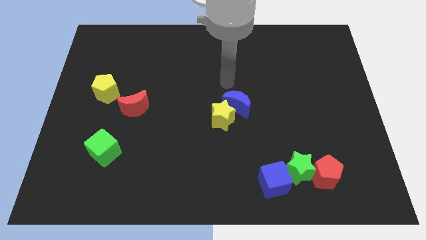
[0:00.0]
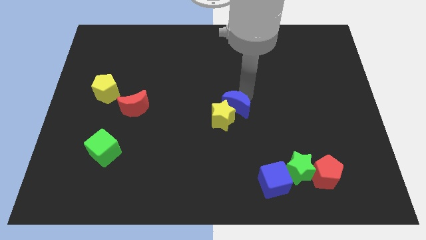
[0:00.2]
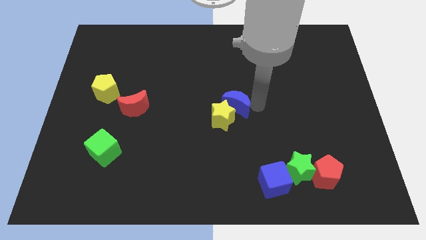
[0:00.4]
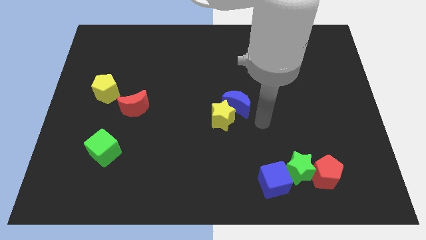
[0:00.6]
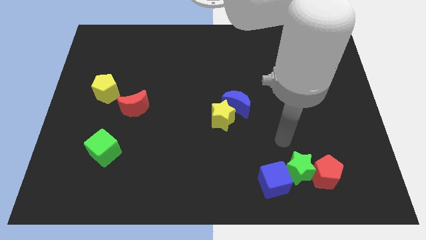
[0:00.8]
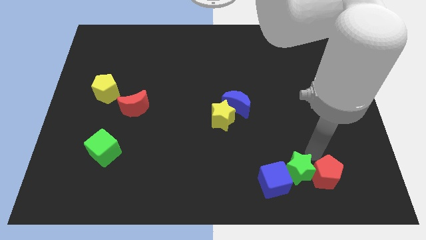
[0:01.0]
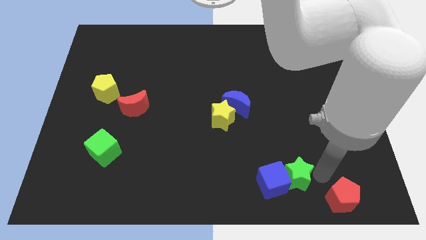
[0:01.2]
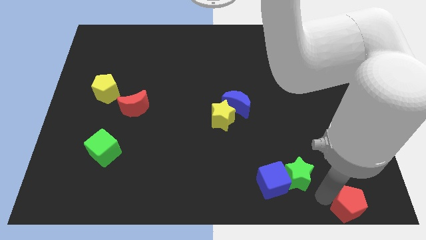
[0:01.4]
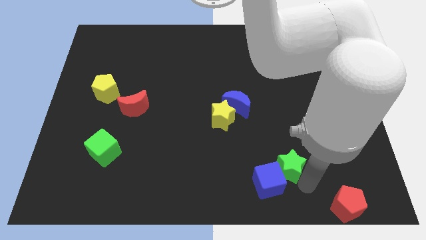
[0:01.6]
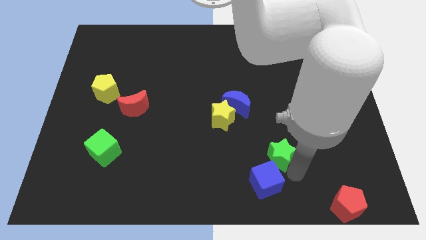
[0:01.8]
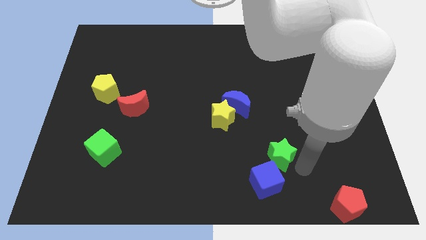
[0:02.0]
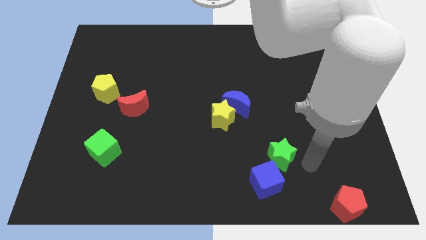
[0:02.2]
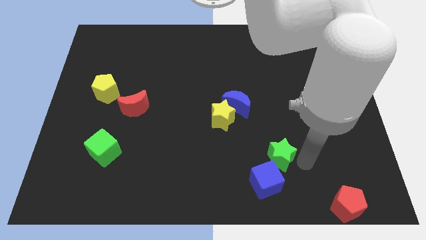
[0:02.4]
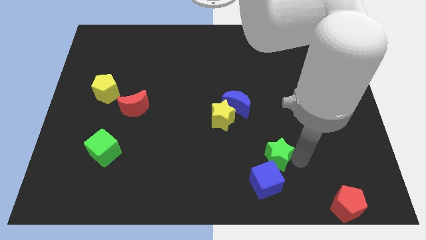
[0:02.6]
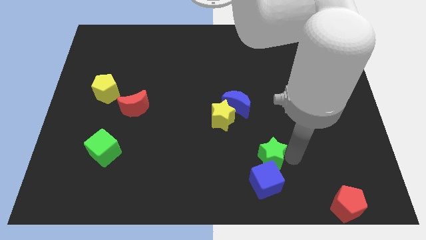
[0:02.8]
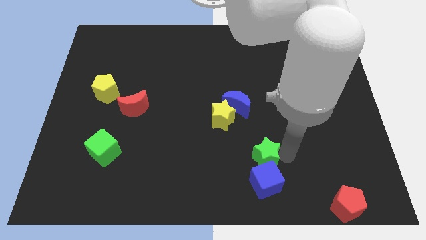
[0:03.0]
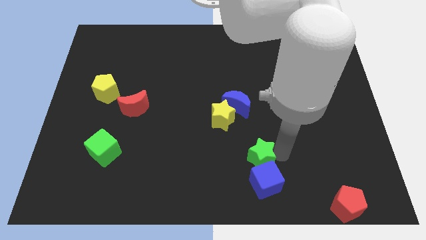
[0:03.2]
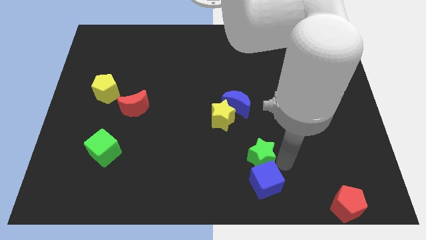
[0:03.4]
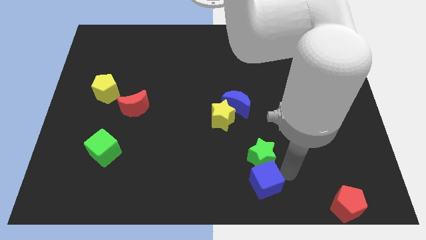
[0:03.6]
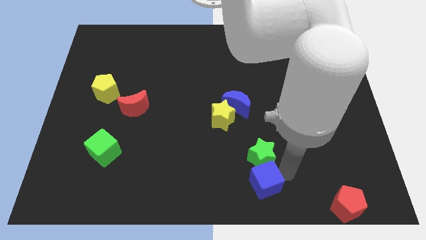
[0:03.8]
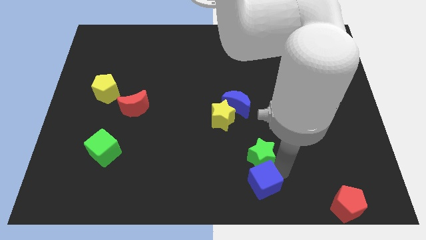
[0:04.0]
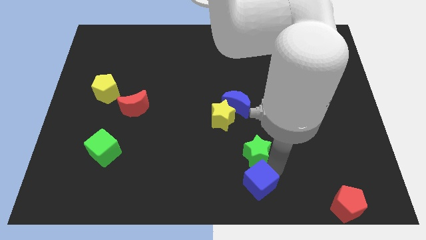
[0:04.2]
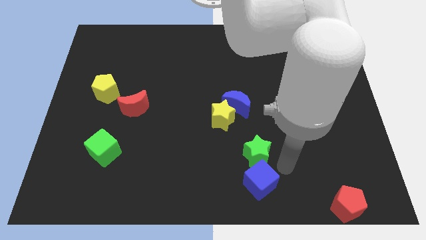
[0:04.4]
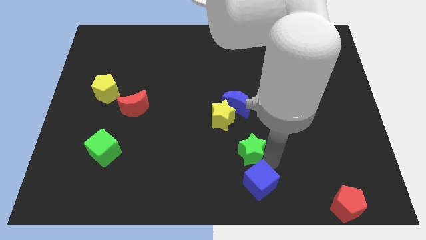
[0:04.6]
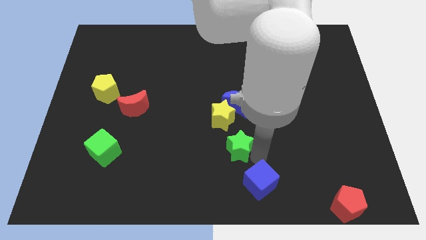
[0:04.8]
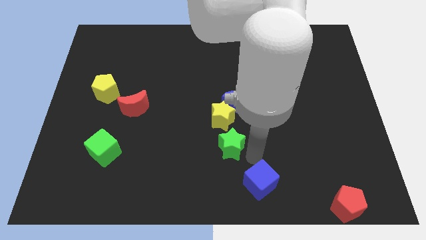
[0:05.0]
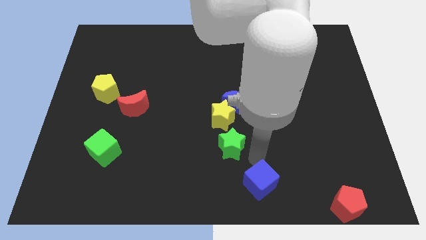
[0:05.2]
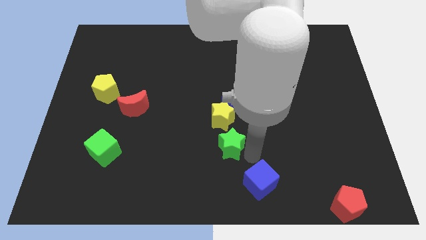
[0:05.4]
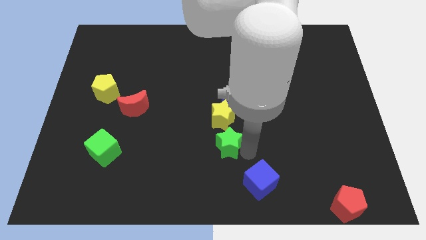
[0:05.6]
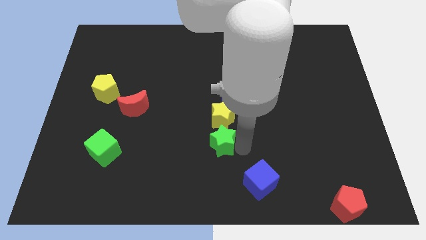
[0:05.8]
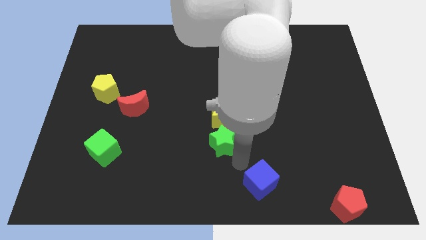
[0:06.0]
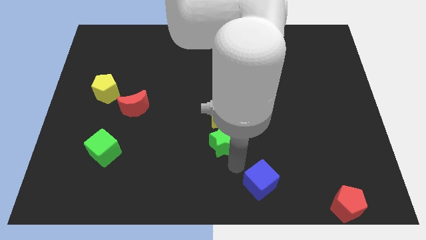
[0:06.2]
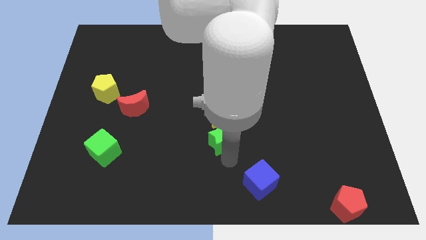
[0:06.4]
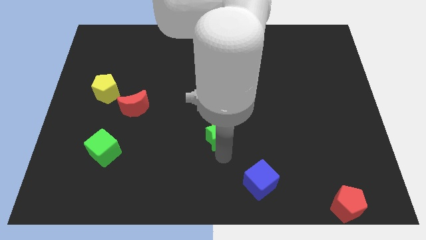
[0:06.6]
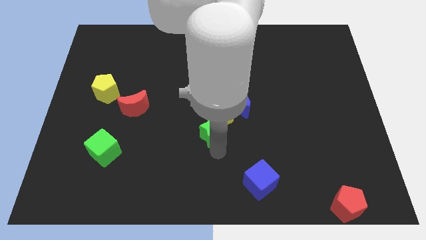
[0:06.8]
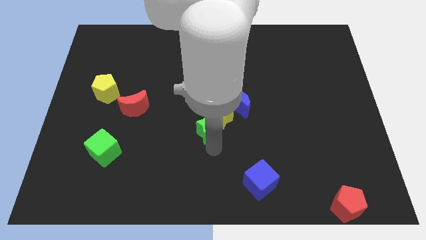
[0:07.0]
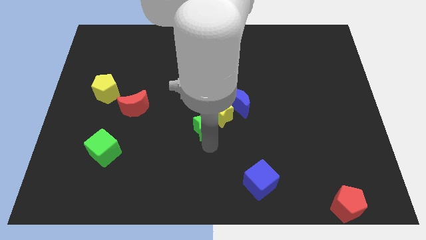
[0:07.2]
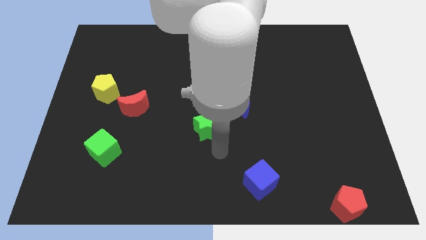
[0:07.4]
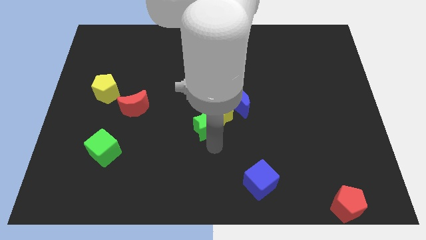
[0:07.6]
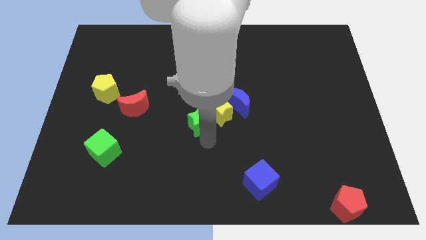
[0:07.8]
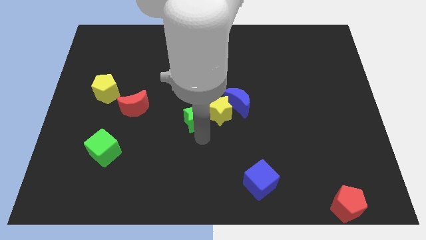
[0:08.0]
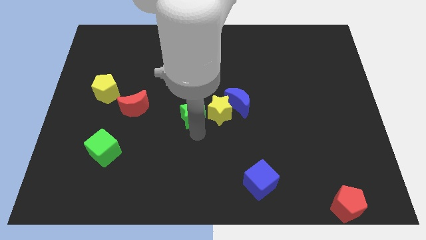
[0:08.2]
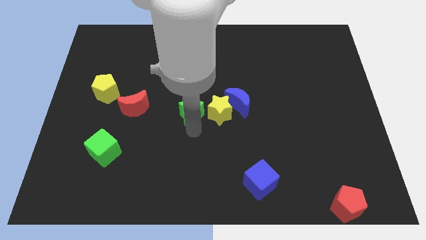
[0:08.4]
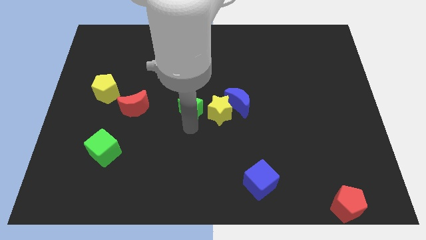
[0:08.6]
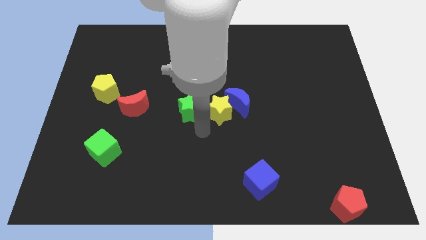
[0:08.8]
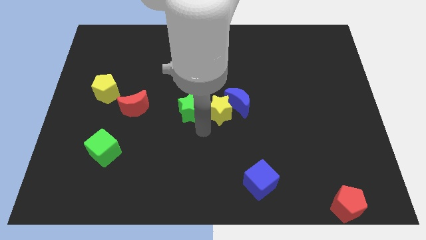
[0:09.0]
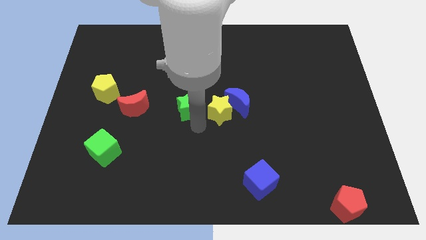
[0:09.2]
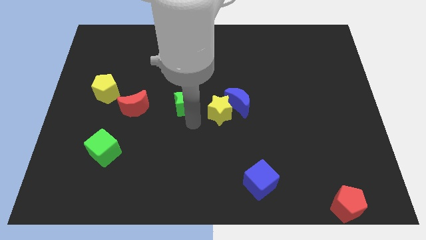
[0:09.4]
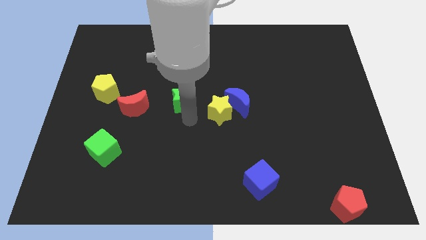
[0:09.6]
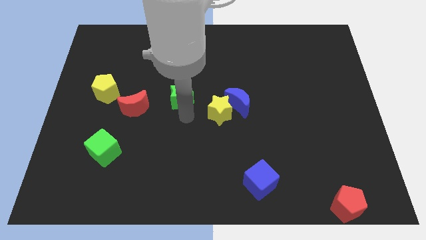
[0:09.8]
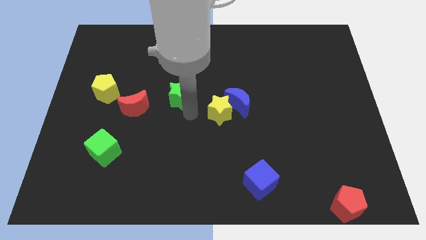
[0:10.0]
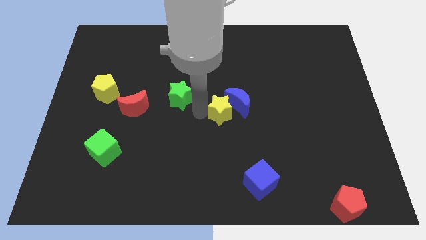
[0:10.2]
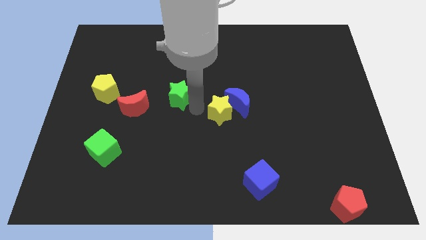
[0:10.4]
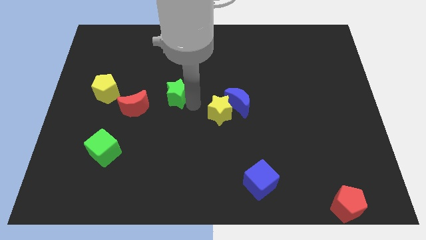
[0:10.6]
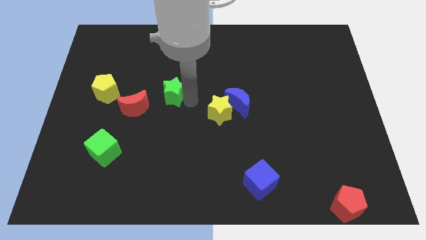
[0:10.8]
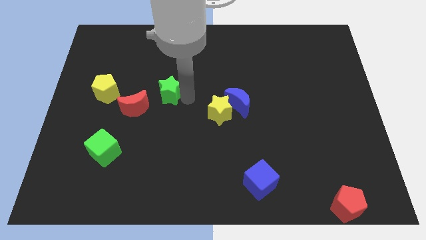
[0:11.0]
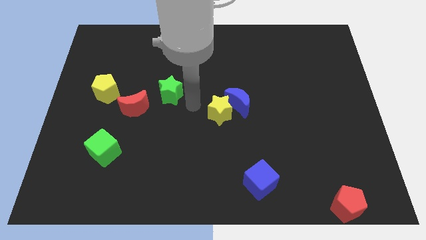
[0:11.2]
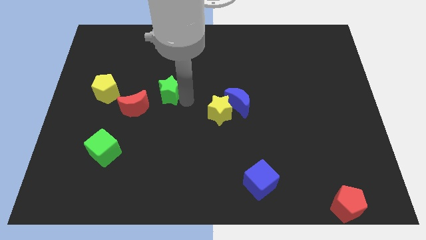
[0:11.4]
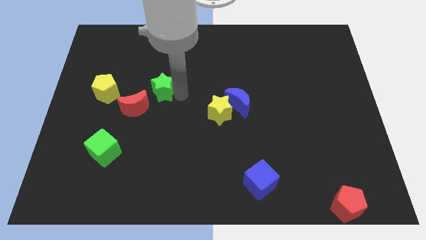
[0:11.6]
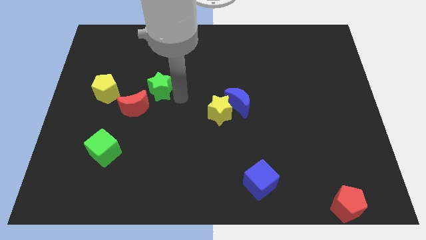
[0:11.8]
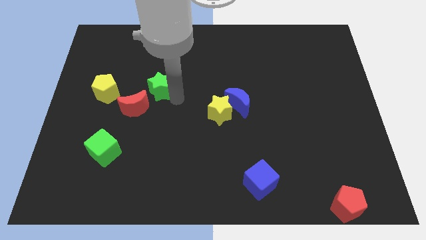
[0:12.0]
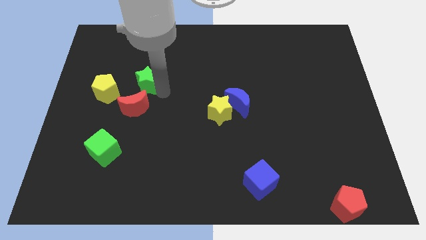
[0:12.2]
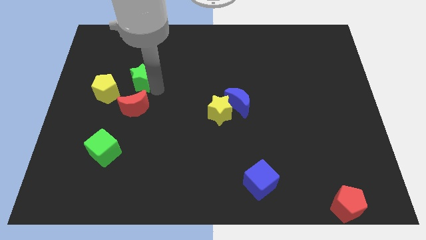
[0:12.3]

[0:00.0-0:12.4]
put the green star diagonally up and to the right of the yellow pentagon

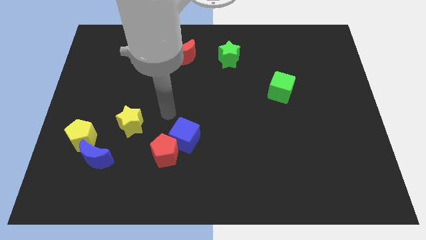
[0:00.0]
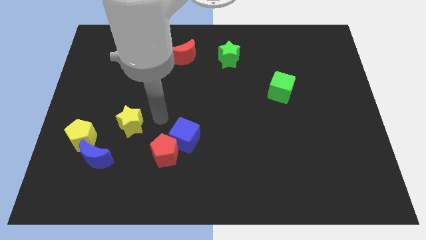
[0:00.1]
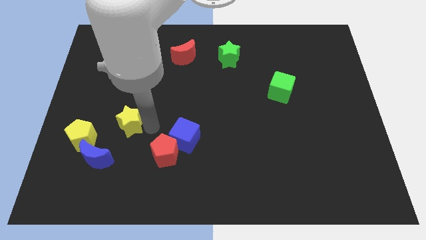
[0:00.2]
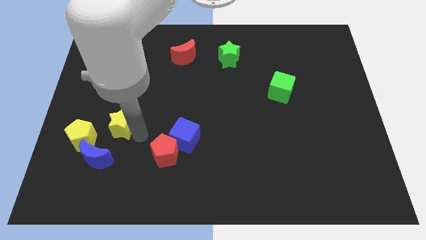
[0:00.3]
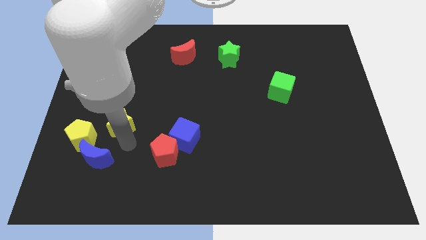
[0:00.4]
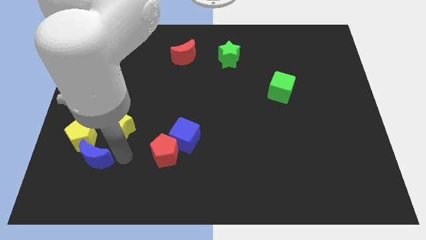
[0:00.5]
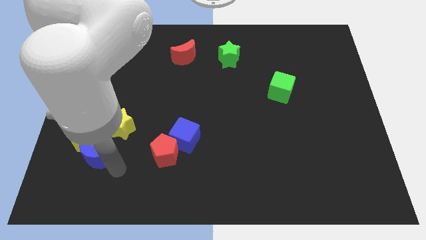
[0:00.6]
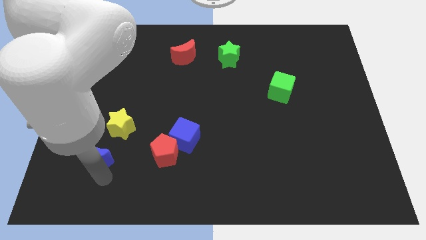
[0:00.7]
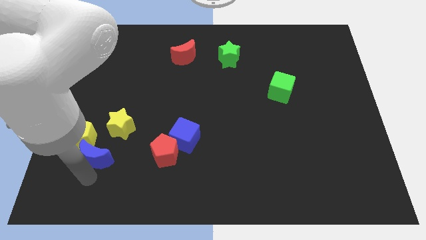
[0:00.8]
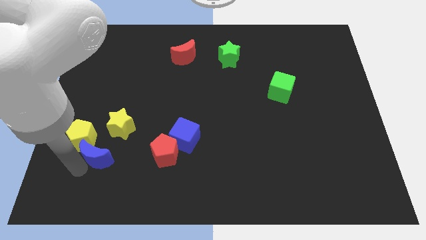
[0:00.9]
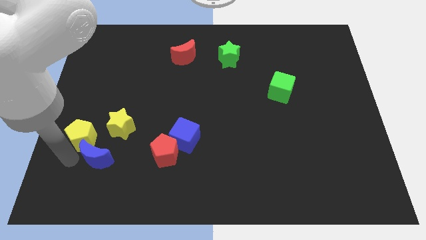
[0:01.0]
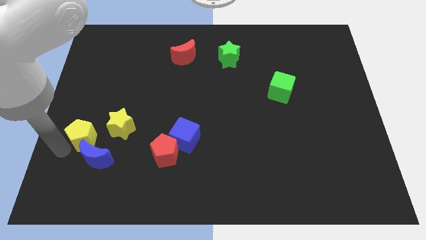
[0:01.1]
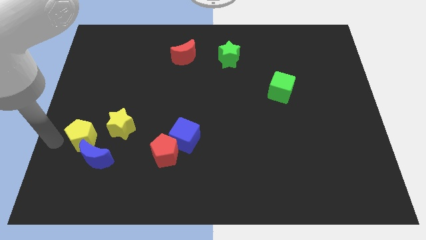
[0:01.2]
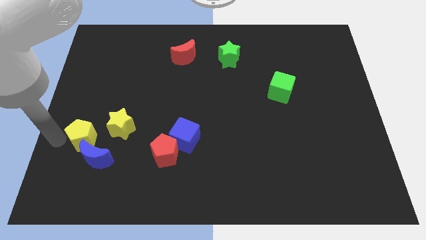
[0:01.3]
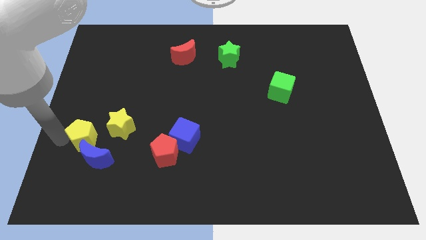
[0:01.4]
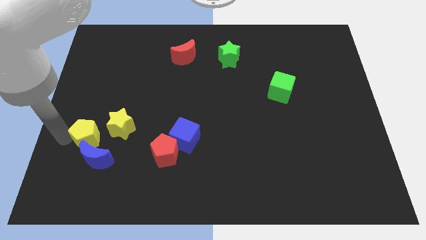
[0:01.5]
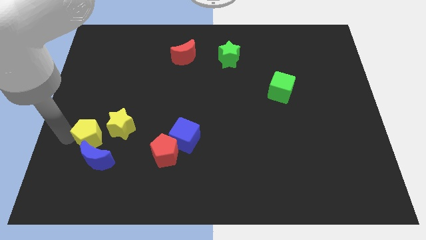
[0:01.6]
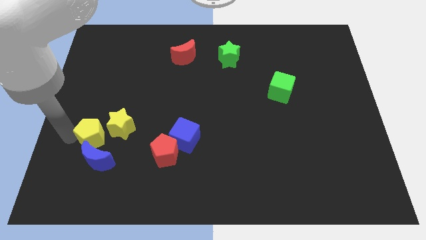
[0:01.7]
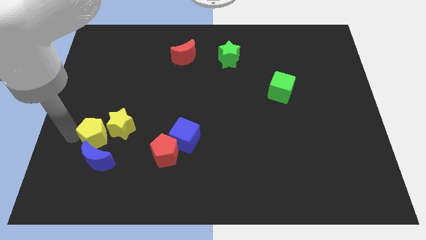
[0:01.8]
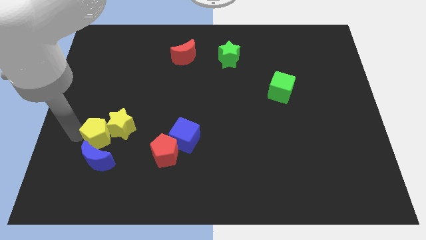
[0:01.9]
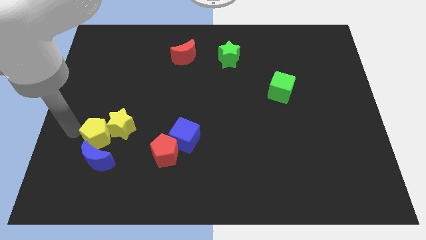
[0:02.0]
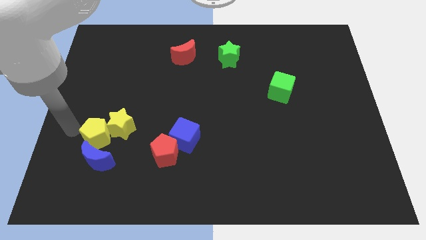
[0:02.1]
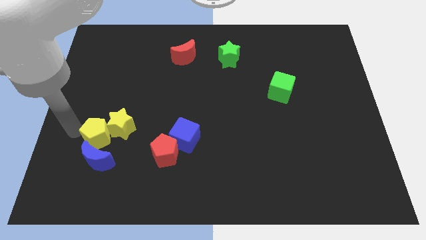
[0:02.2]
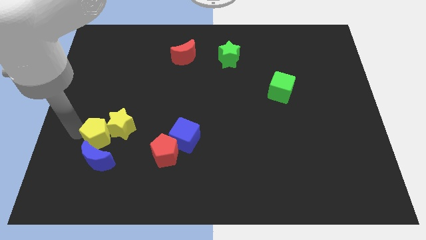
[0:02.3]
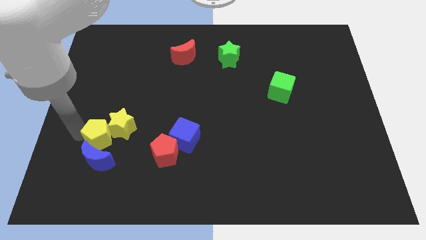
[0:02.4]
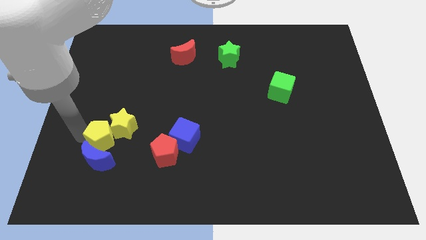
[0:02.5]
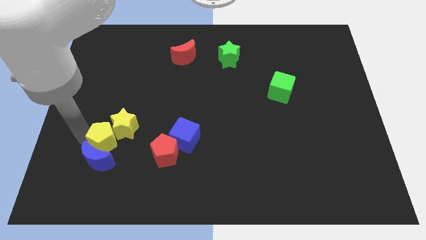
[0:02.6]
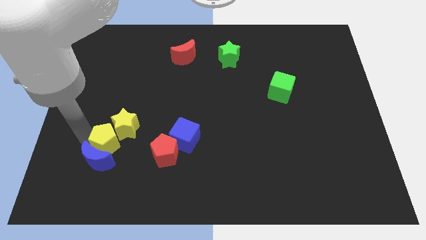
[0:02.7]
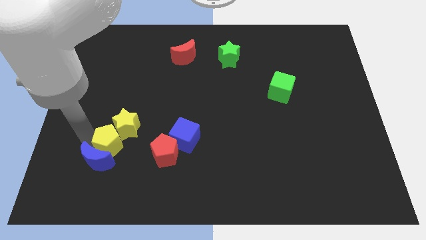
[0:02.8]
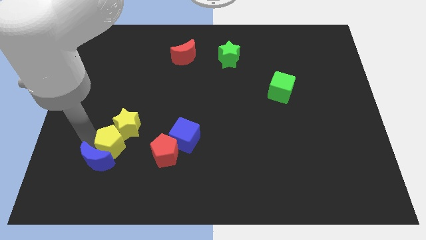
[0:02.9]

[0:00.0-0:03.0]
slide the yellow pentagon right of the blue moon
